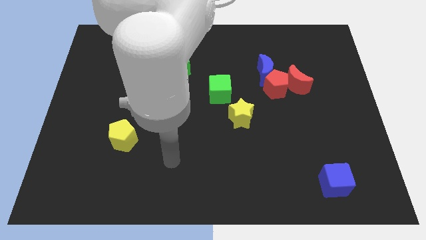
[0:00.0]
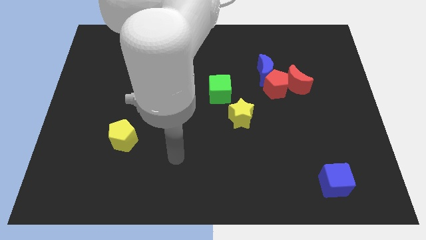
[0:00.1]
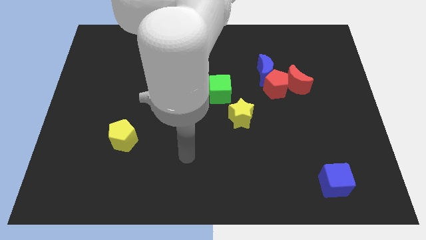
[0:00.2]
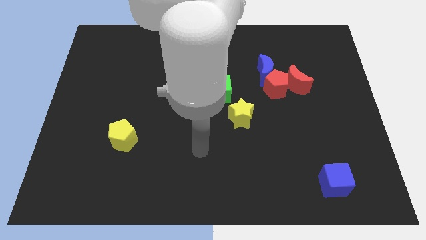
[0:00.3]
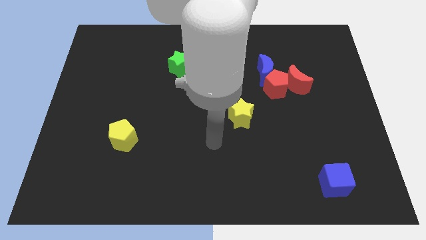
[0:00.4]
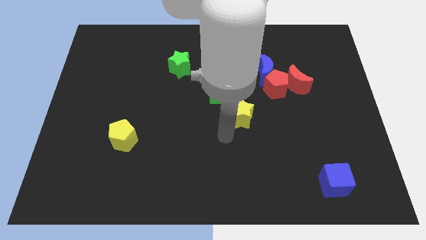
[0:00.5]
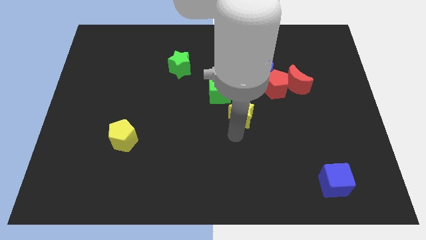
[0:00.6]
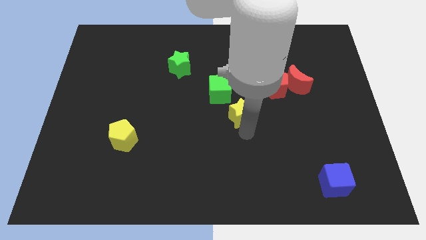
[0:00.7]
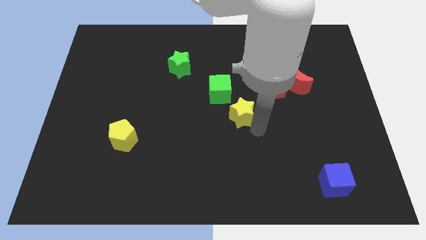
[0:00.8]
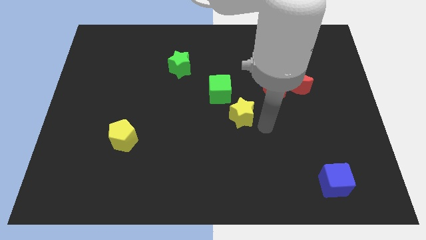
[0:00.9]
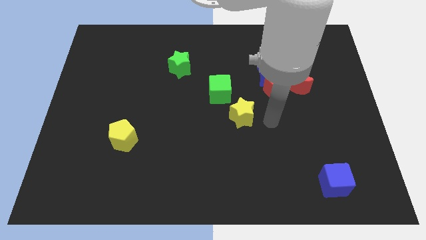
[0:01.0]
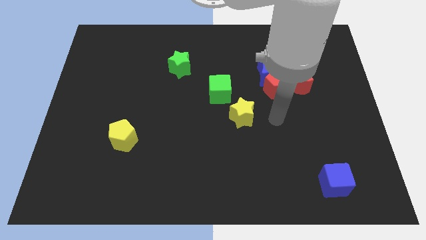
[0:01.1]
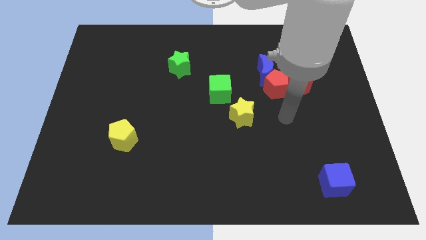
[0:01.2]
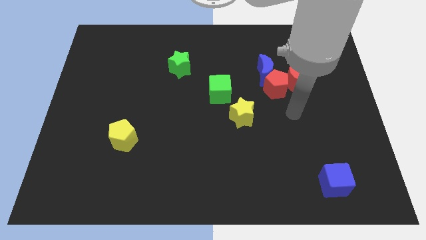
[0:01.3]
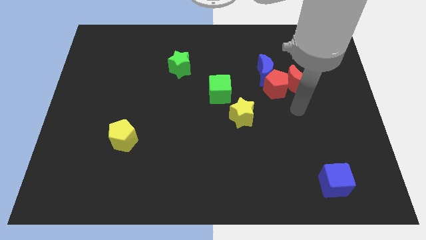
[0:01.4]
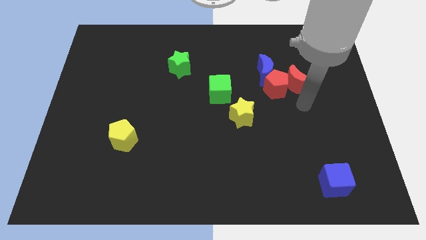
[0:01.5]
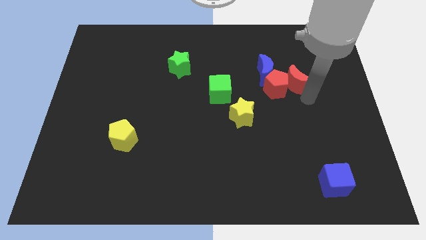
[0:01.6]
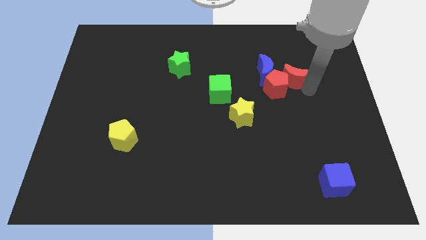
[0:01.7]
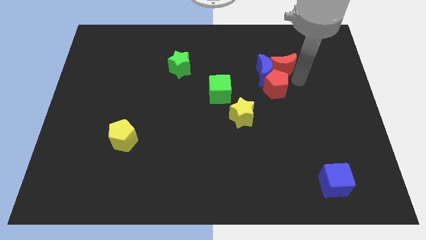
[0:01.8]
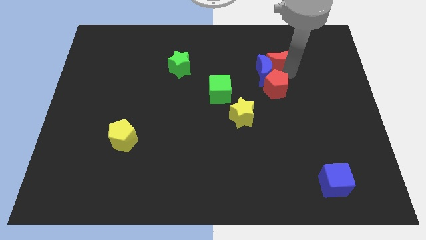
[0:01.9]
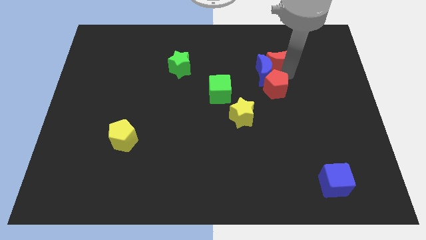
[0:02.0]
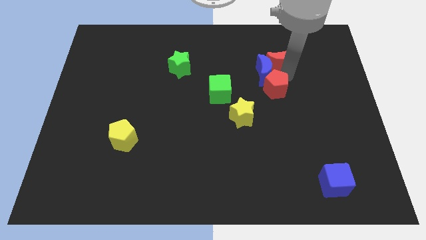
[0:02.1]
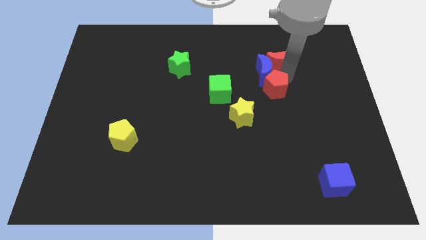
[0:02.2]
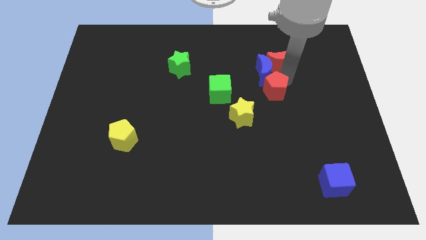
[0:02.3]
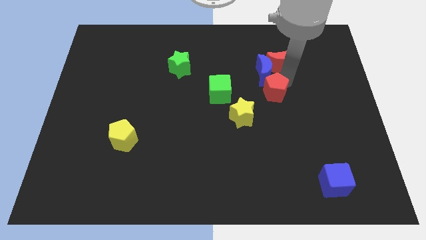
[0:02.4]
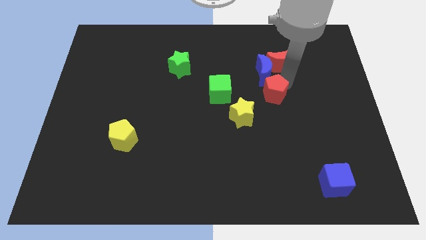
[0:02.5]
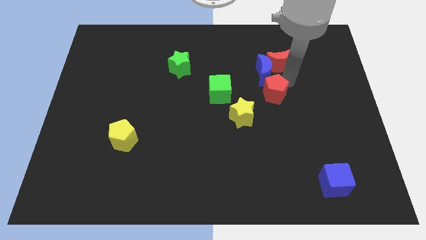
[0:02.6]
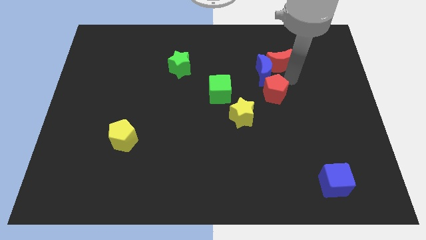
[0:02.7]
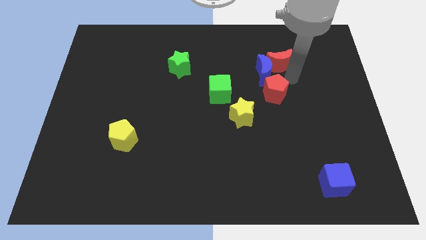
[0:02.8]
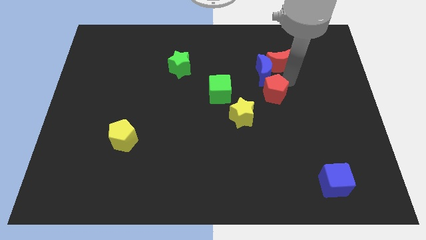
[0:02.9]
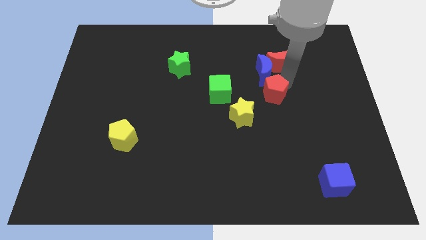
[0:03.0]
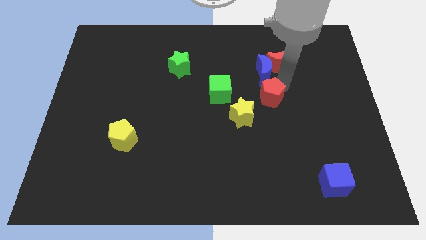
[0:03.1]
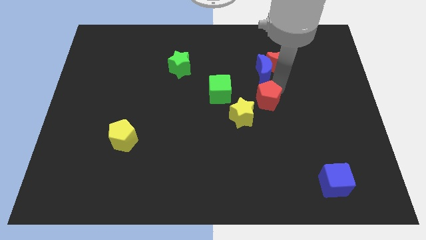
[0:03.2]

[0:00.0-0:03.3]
move the red pentagon away from the blue moon and red moon

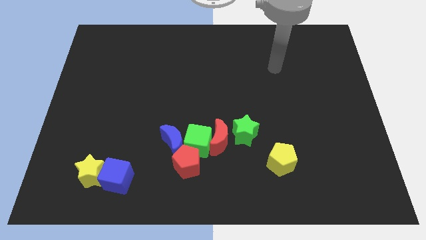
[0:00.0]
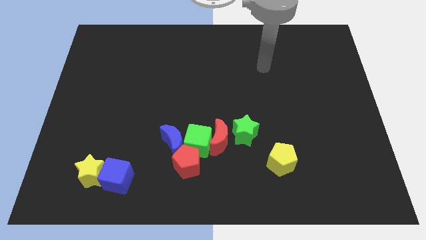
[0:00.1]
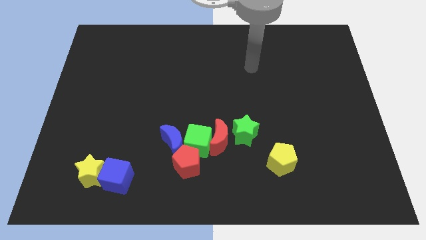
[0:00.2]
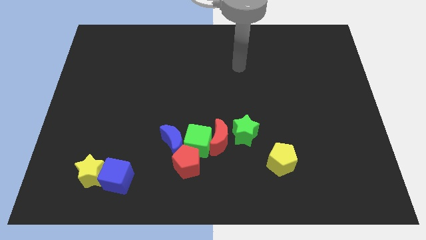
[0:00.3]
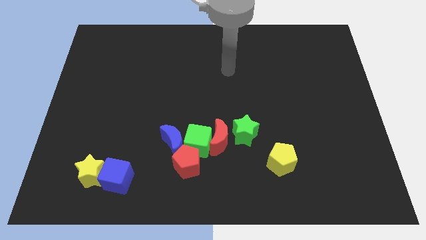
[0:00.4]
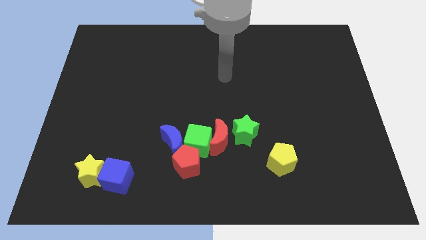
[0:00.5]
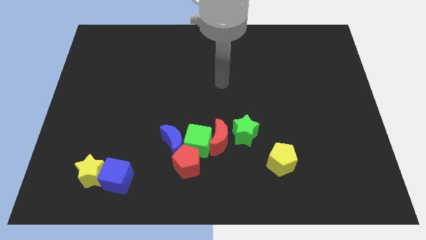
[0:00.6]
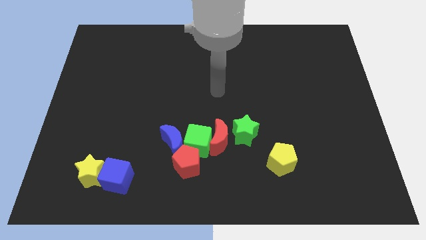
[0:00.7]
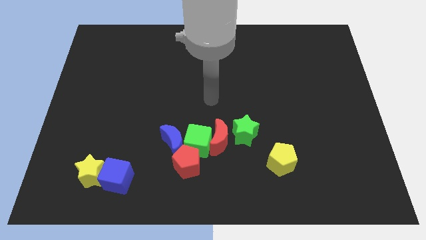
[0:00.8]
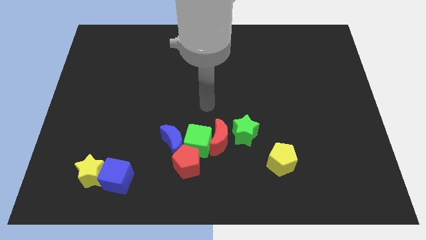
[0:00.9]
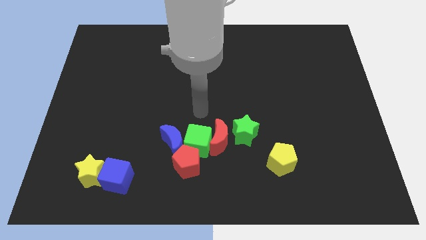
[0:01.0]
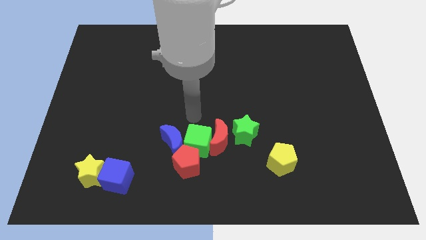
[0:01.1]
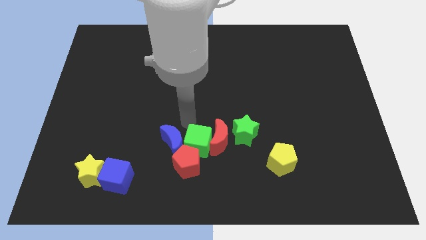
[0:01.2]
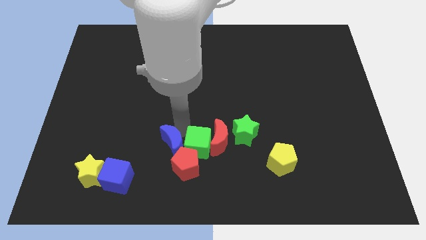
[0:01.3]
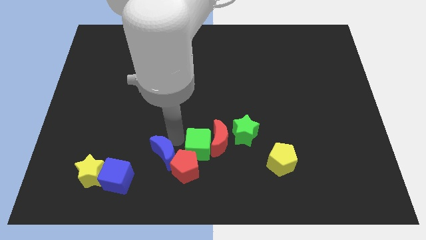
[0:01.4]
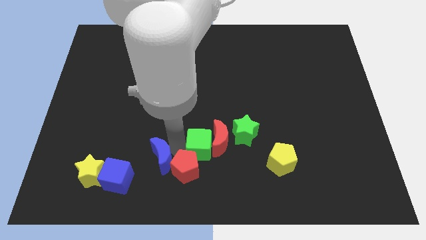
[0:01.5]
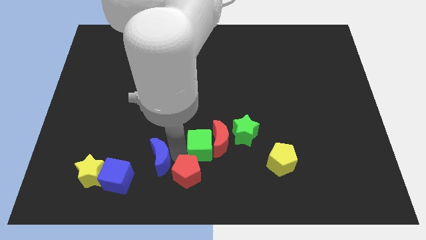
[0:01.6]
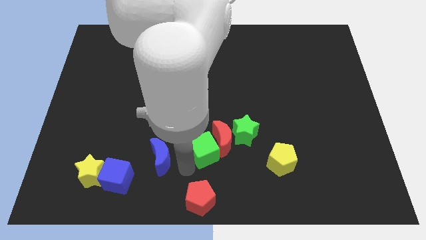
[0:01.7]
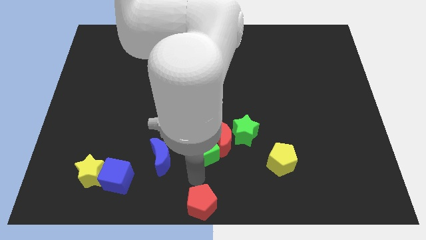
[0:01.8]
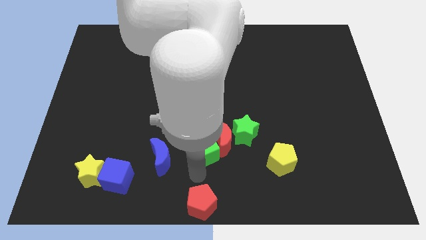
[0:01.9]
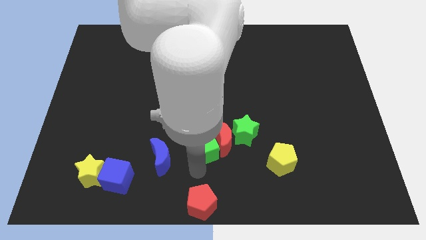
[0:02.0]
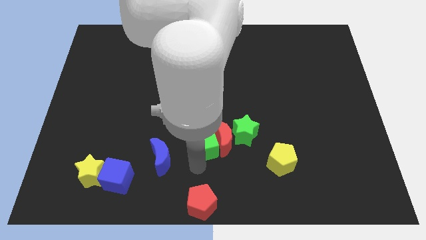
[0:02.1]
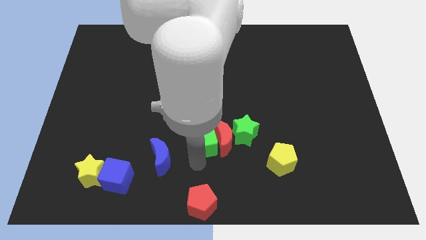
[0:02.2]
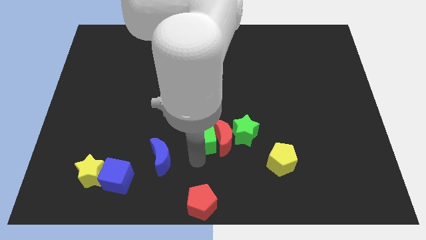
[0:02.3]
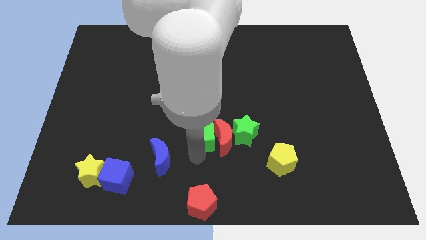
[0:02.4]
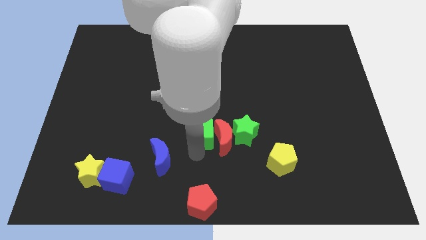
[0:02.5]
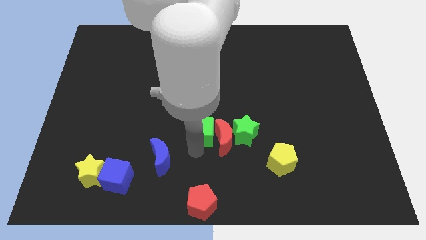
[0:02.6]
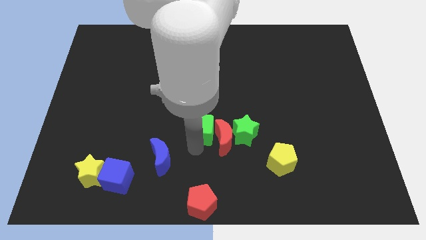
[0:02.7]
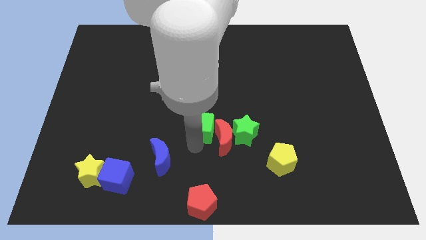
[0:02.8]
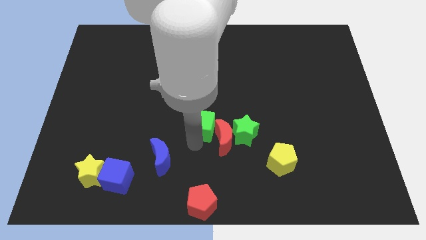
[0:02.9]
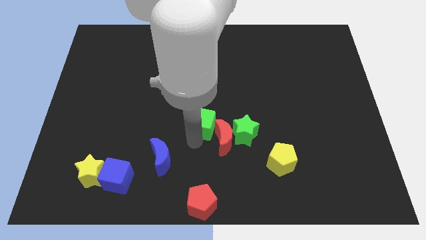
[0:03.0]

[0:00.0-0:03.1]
separate the green cube from the red moon, blue moon, and red pentagon

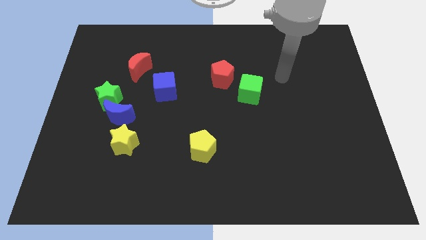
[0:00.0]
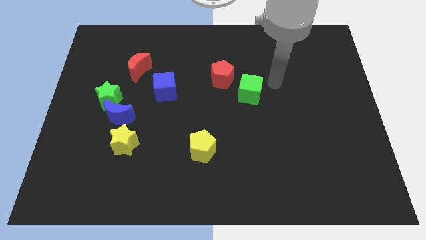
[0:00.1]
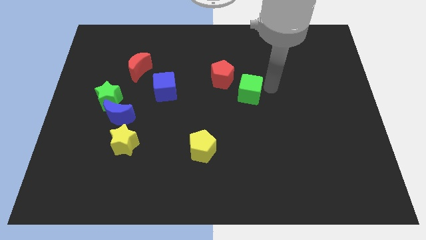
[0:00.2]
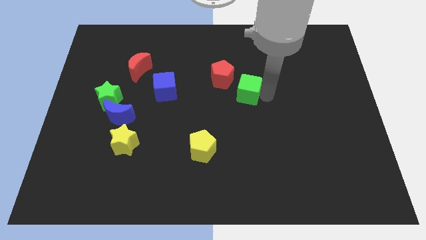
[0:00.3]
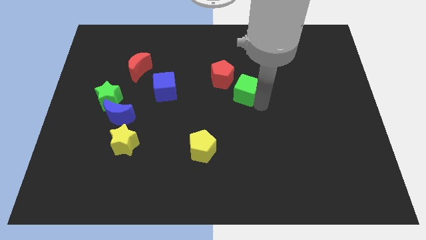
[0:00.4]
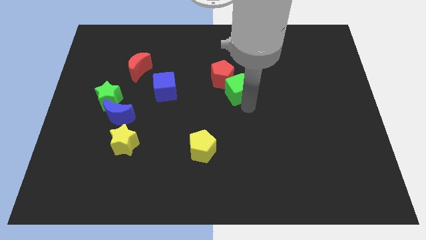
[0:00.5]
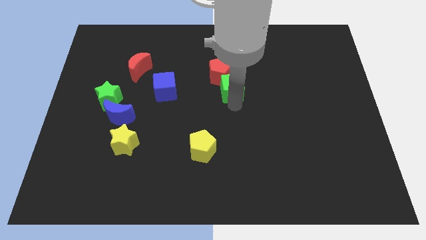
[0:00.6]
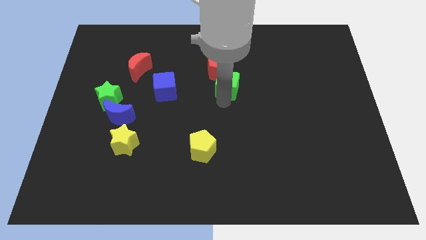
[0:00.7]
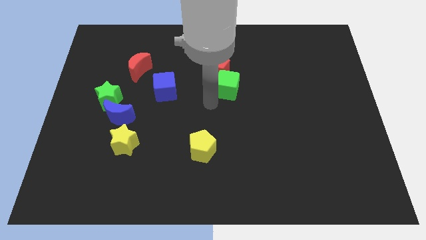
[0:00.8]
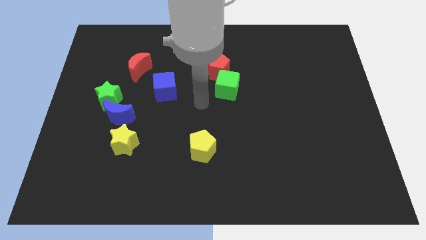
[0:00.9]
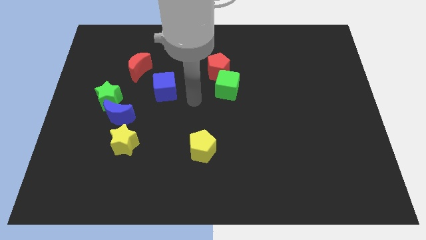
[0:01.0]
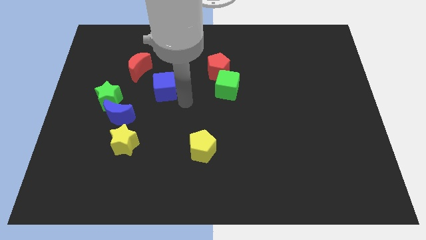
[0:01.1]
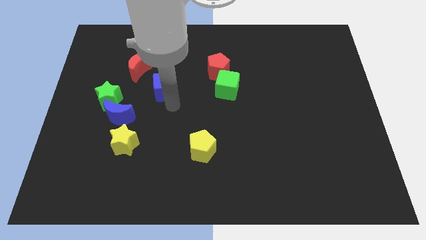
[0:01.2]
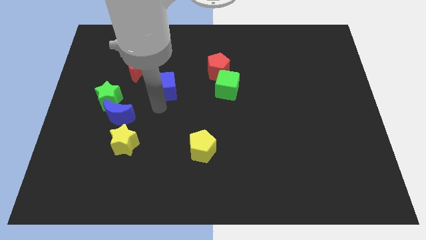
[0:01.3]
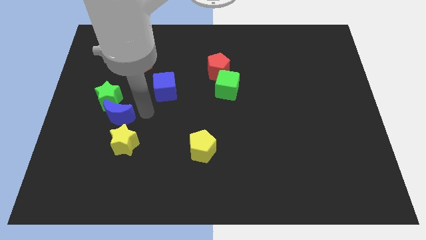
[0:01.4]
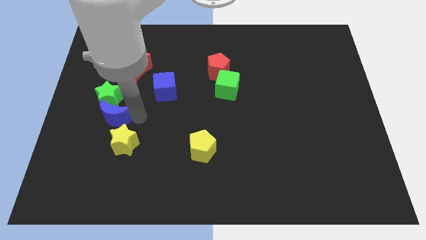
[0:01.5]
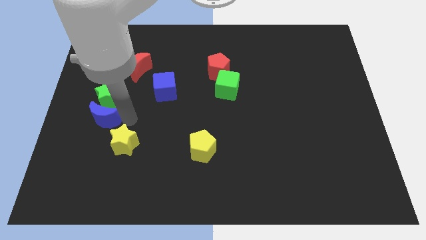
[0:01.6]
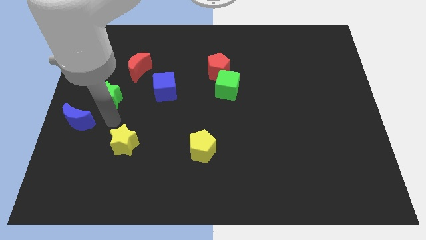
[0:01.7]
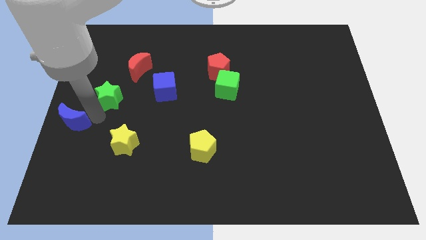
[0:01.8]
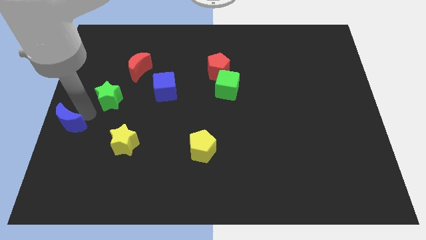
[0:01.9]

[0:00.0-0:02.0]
move the green star away from the blue moon

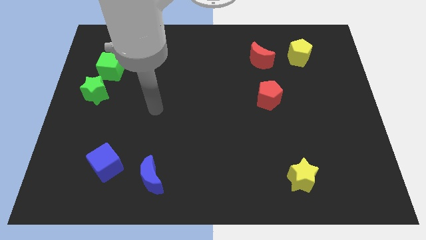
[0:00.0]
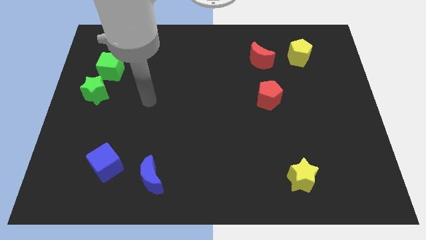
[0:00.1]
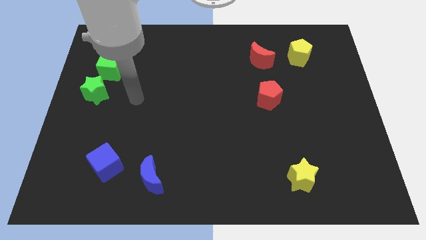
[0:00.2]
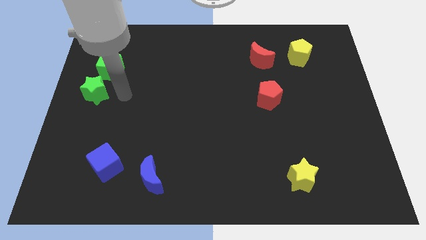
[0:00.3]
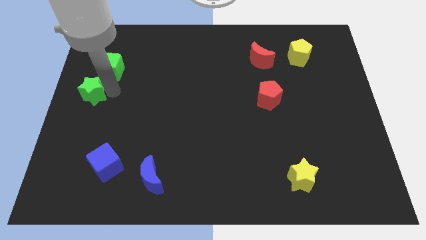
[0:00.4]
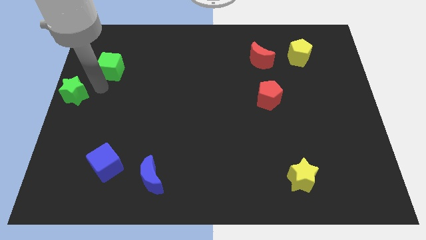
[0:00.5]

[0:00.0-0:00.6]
pull the green cube apart from the green star

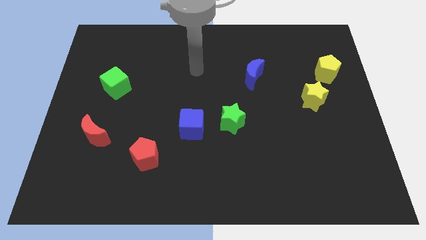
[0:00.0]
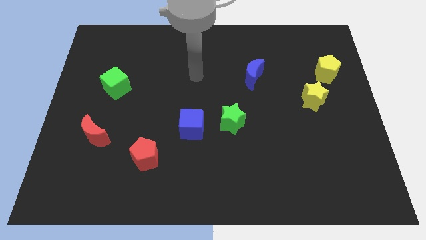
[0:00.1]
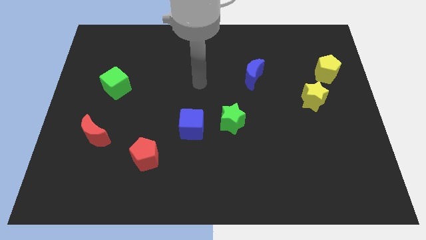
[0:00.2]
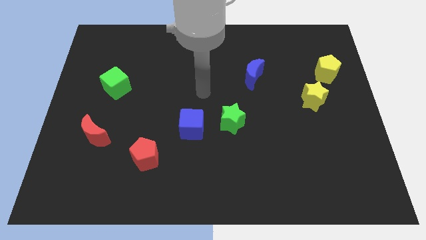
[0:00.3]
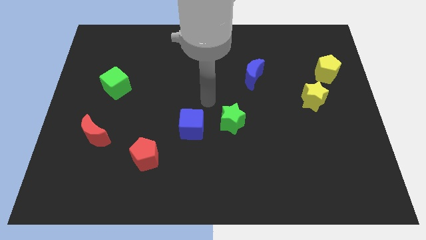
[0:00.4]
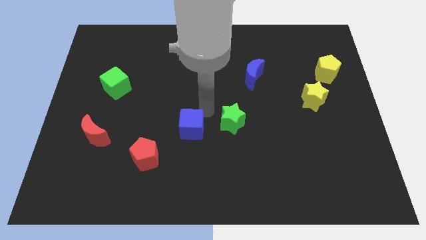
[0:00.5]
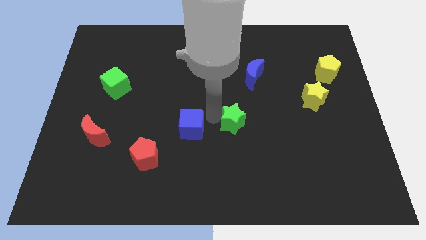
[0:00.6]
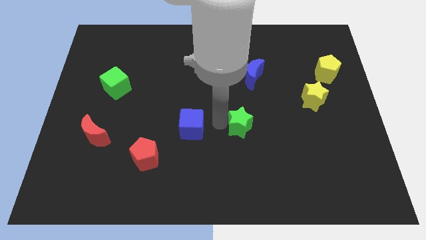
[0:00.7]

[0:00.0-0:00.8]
separate the blue cube from the green star
